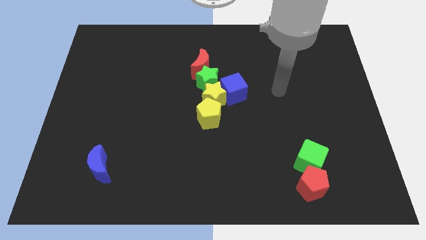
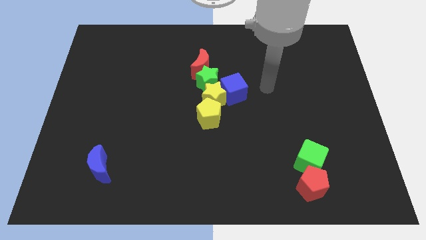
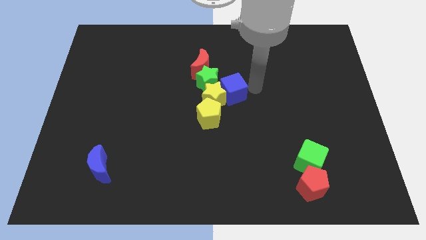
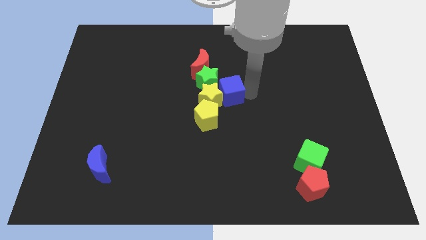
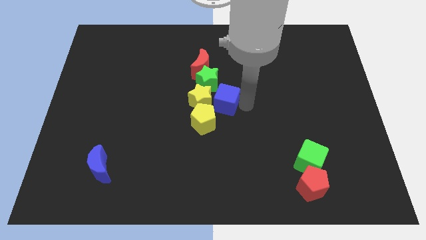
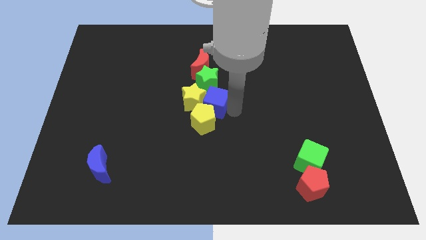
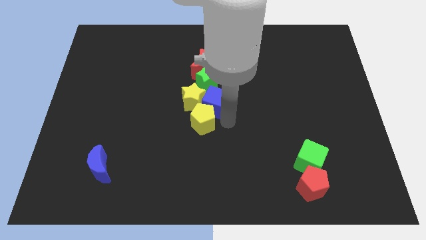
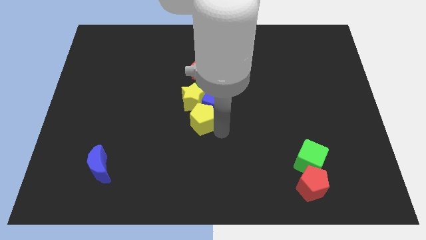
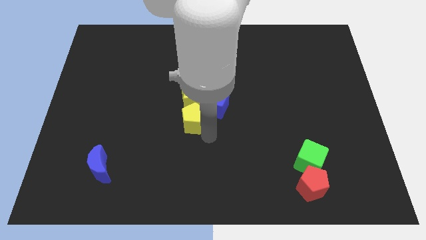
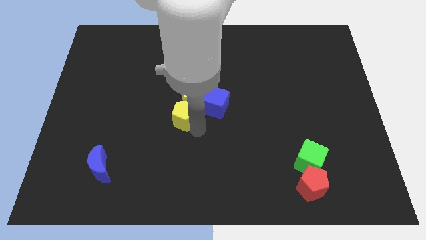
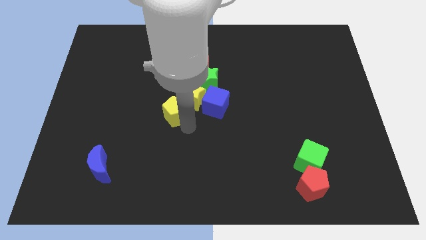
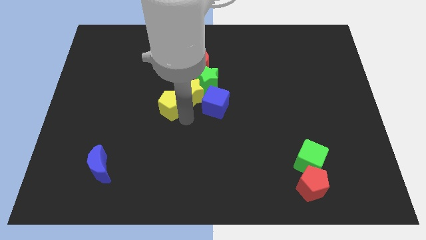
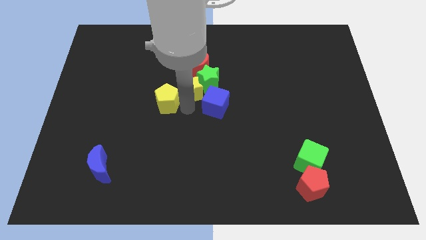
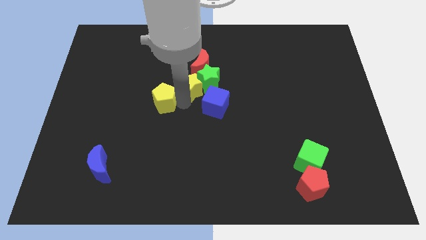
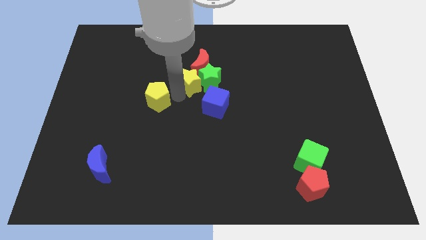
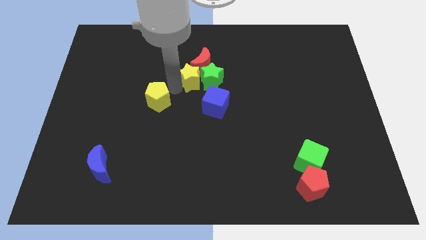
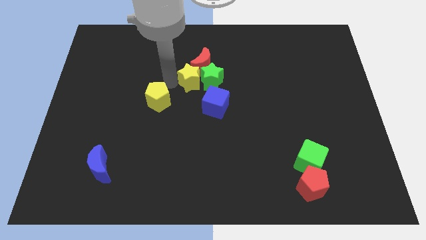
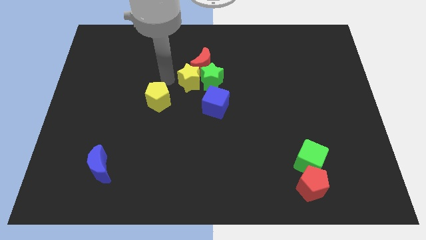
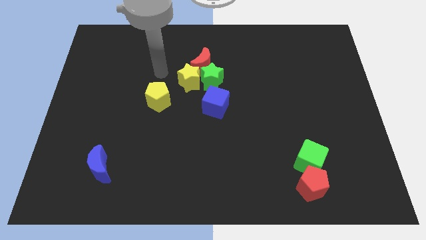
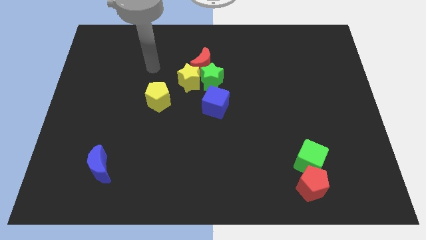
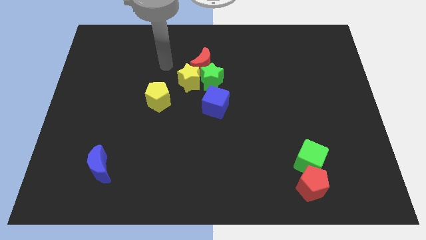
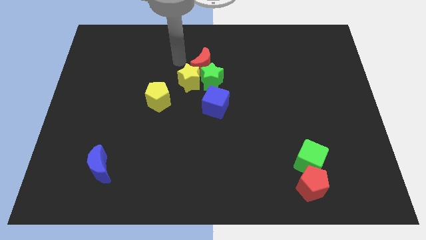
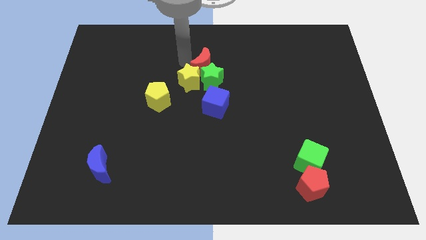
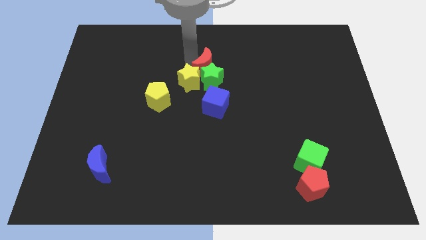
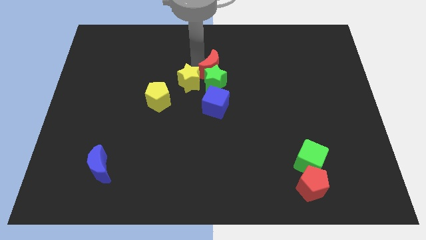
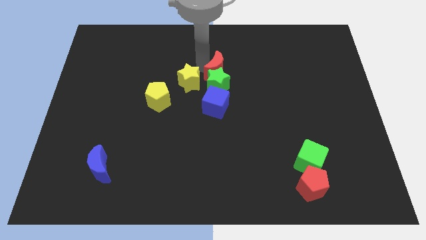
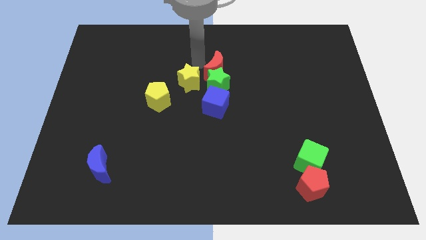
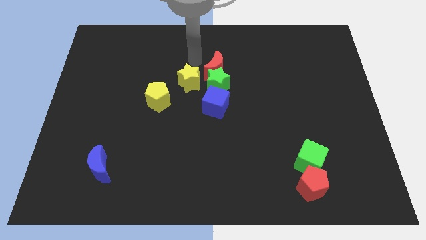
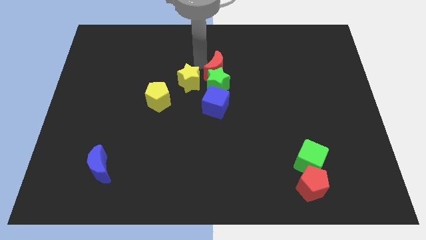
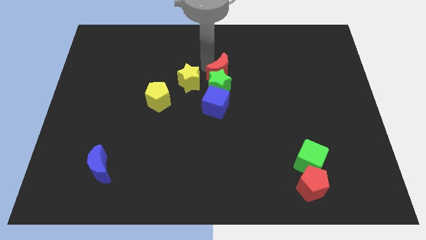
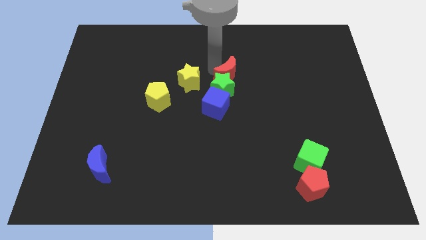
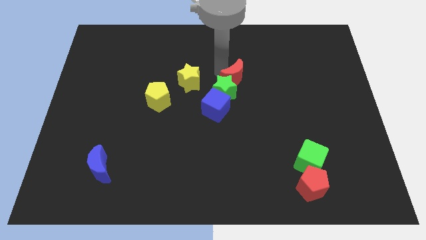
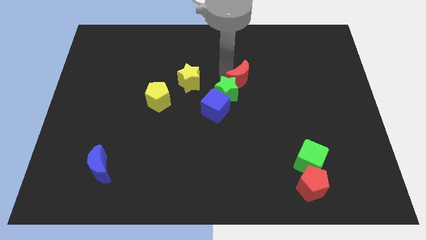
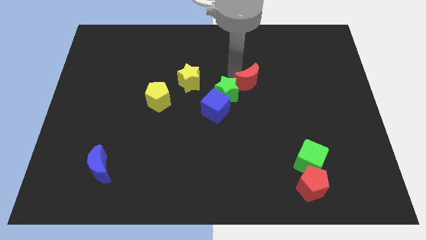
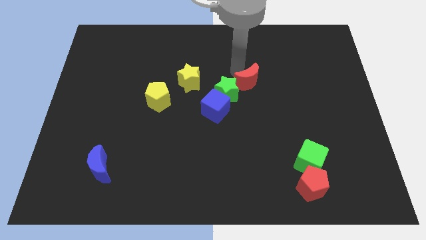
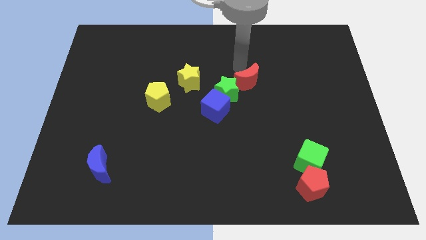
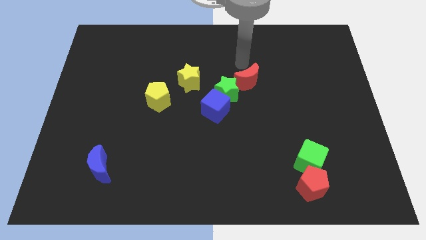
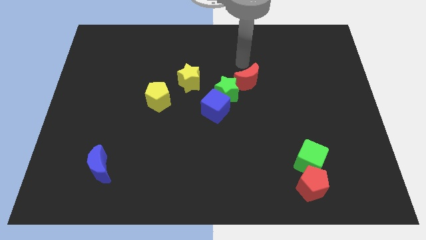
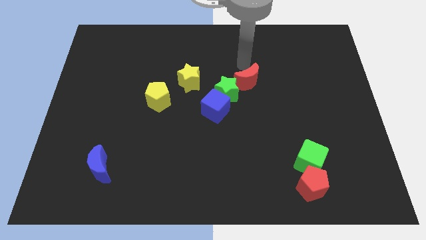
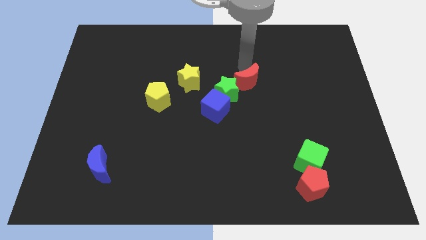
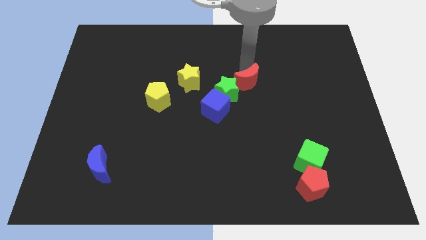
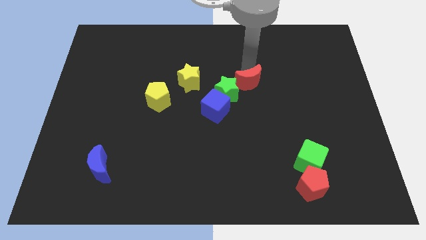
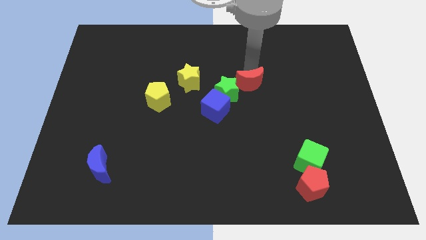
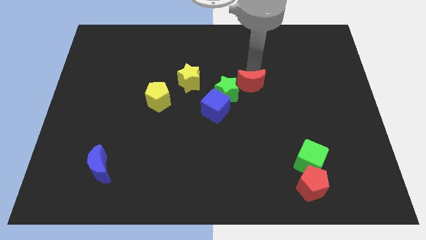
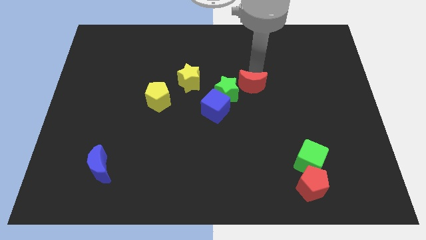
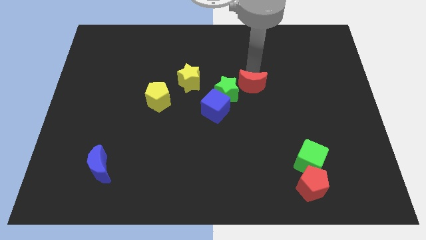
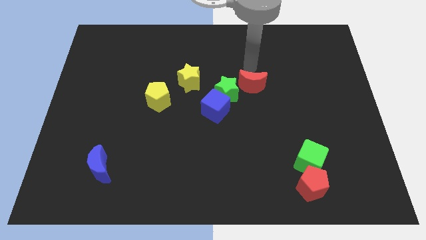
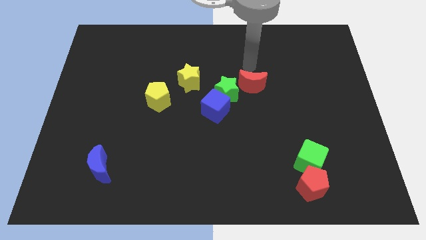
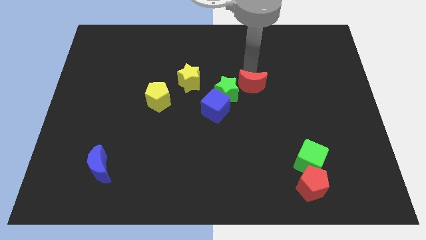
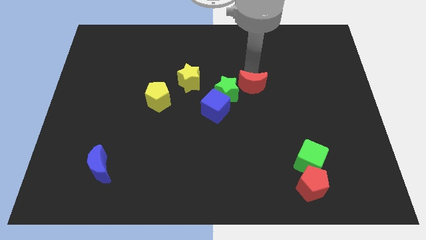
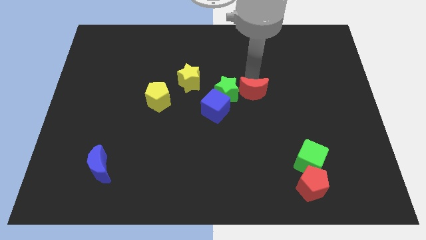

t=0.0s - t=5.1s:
slide the red moon to the bottom right side of the green star

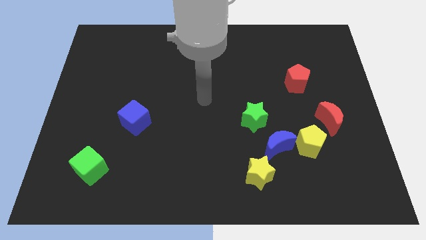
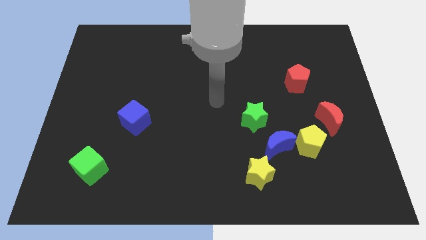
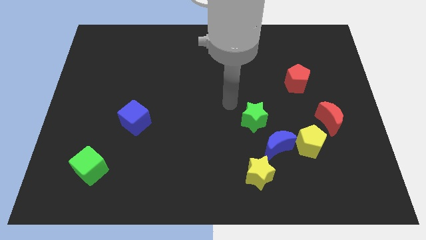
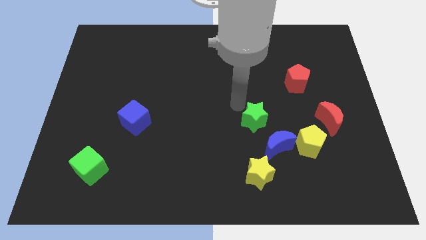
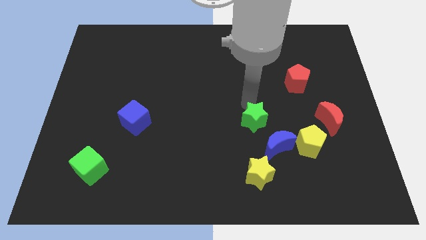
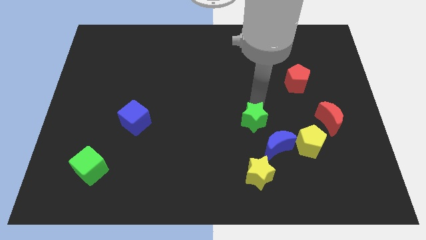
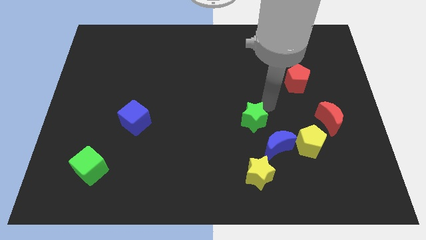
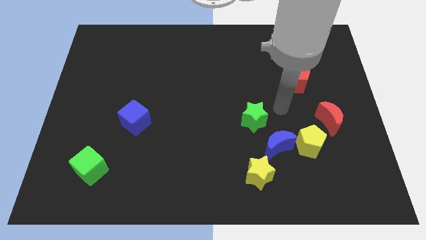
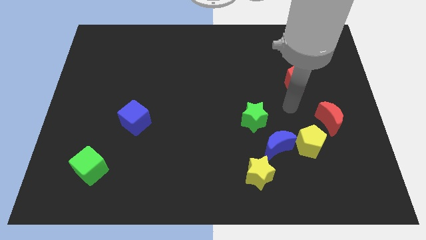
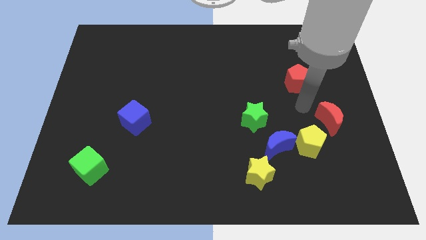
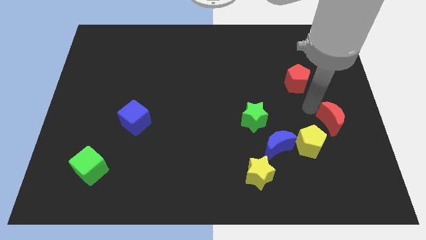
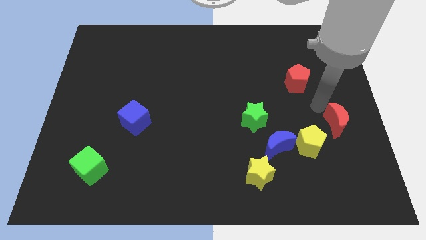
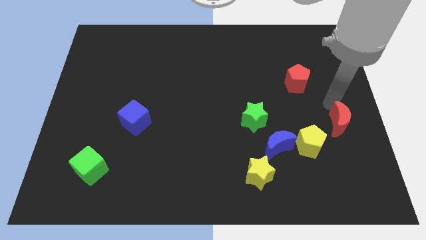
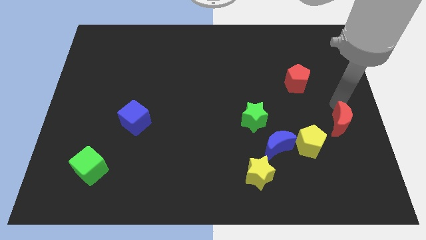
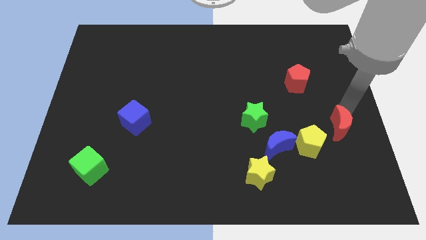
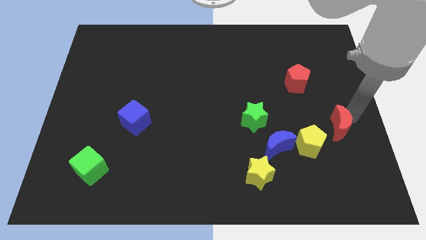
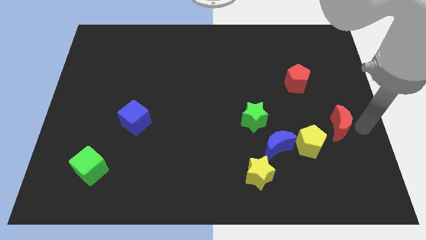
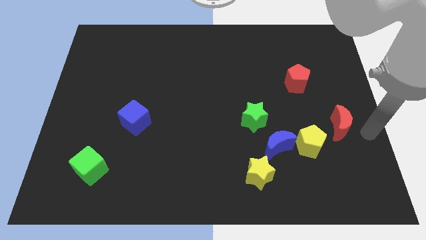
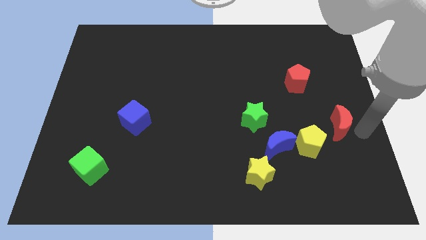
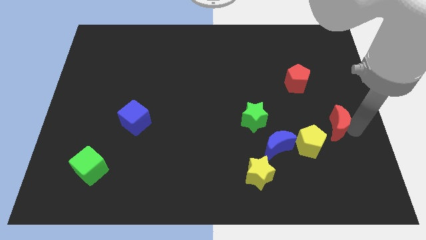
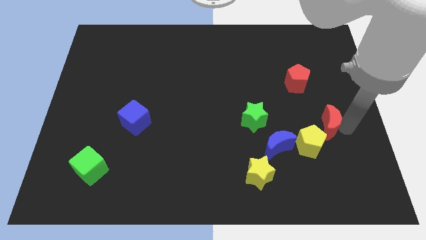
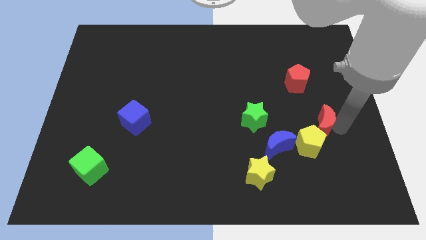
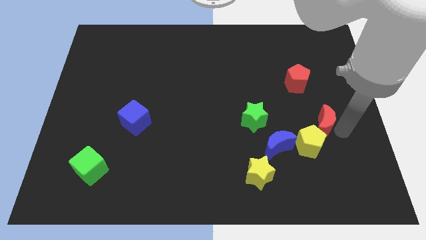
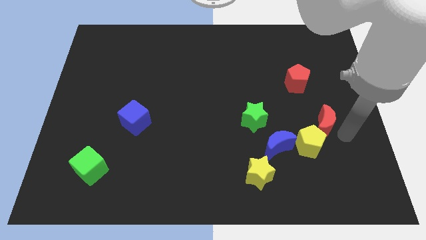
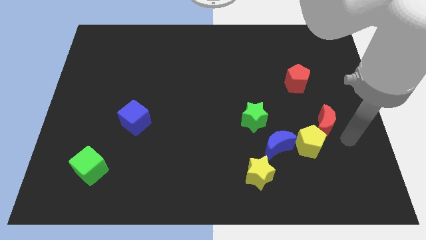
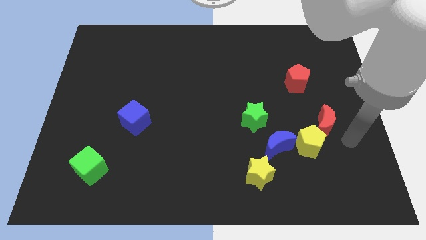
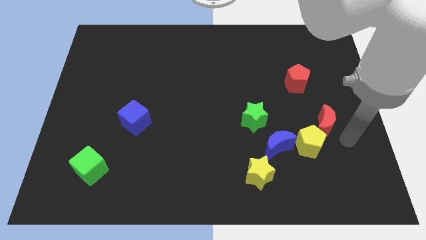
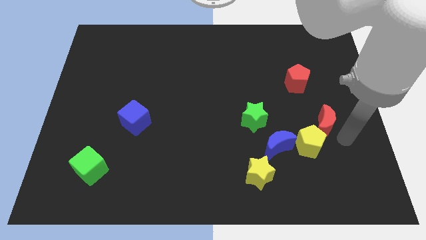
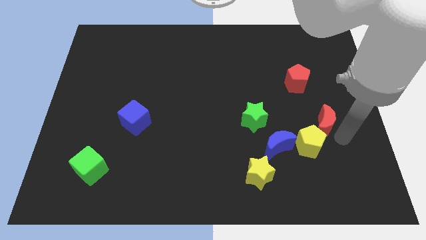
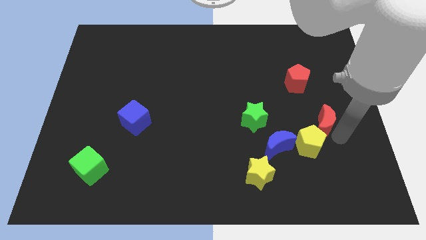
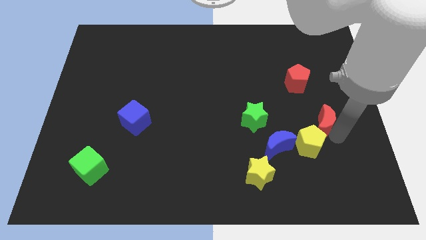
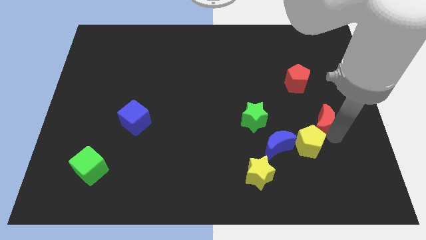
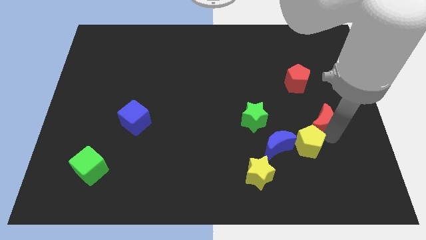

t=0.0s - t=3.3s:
put the red moon to the top right side of the blue moon
